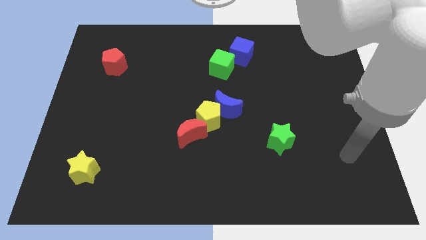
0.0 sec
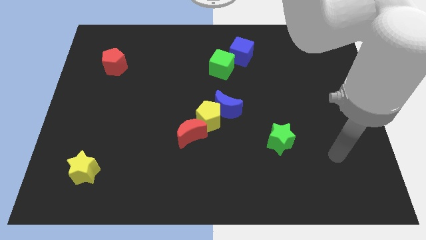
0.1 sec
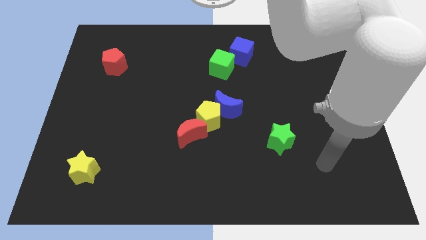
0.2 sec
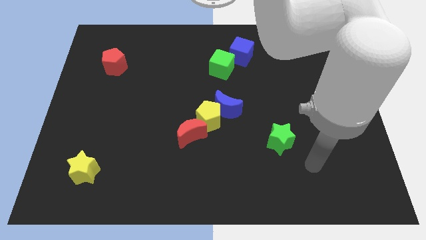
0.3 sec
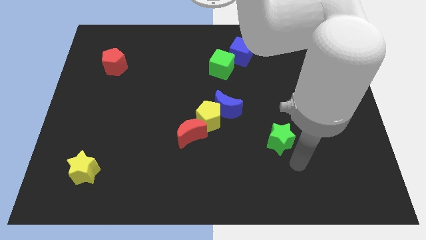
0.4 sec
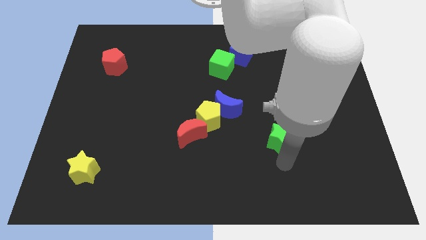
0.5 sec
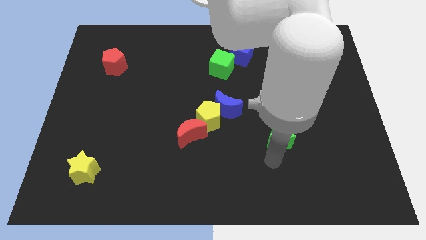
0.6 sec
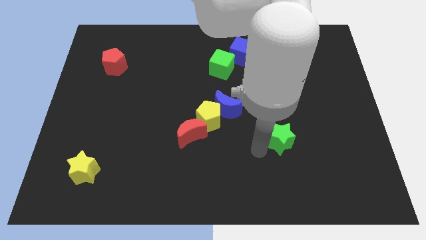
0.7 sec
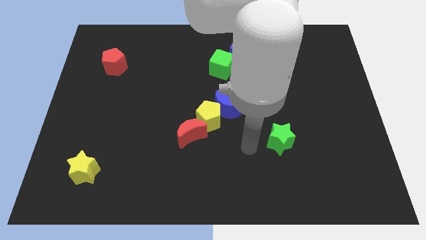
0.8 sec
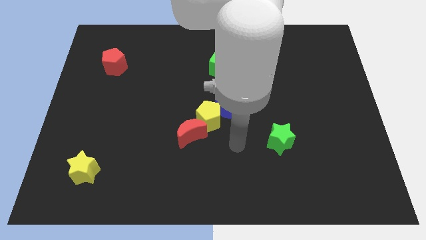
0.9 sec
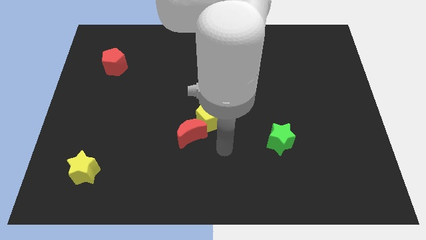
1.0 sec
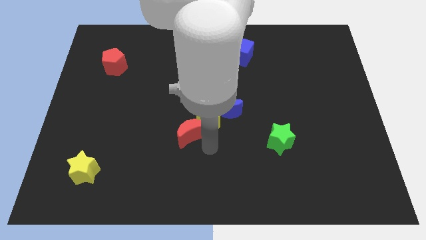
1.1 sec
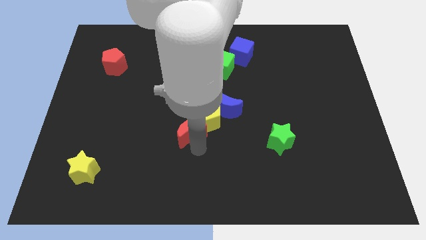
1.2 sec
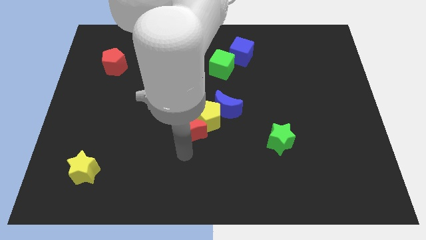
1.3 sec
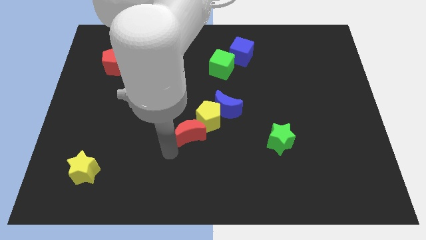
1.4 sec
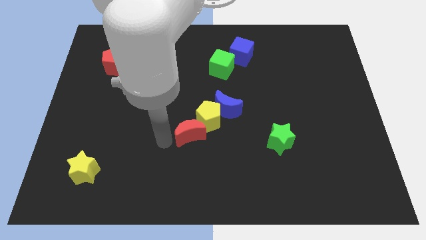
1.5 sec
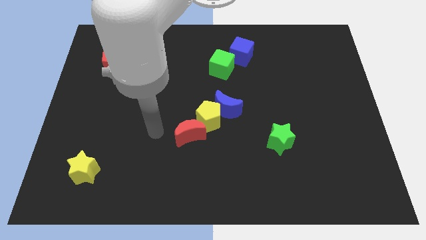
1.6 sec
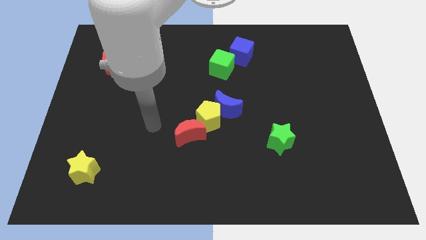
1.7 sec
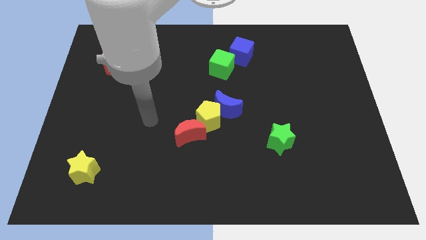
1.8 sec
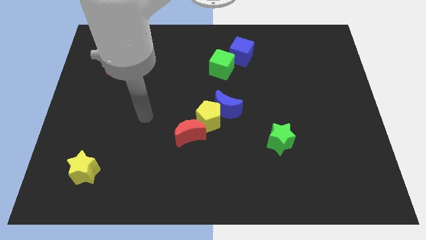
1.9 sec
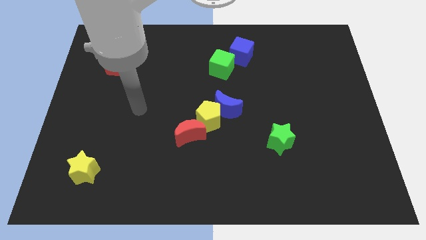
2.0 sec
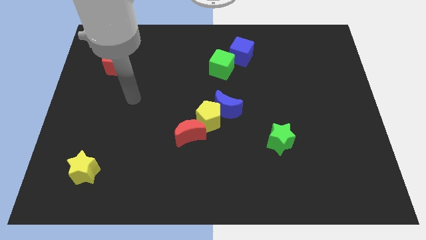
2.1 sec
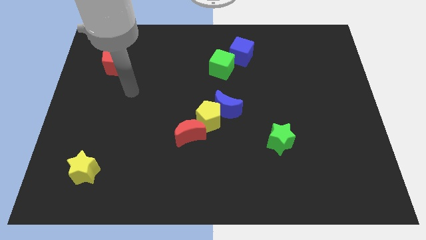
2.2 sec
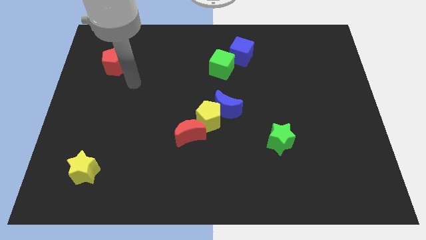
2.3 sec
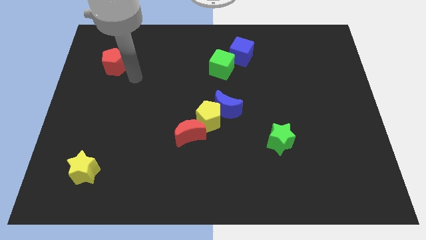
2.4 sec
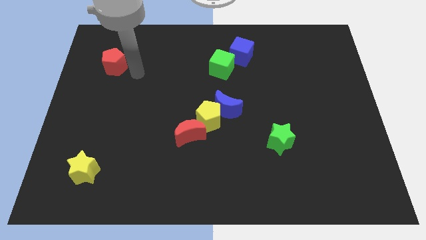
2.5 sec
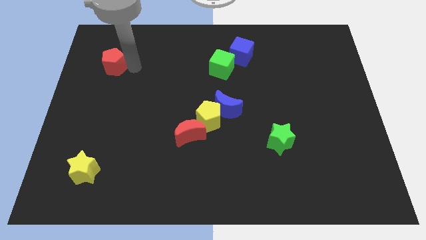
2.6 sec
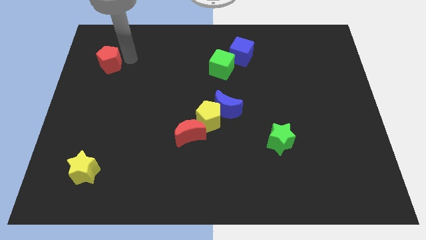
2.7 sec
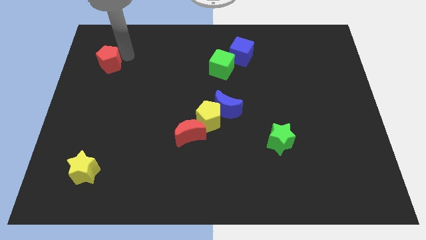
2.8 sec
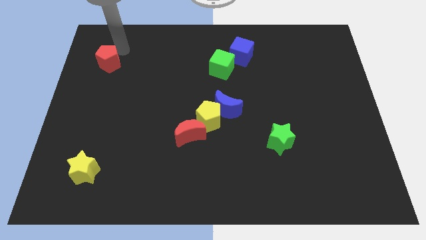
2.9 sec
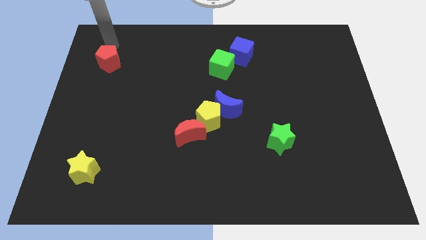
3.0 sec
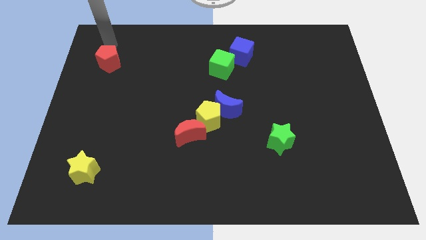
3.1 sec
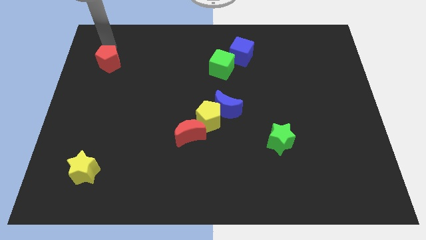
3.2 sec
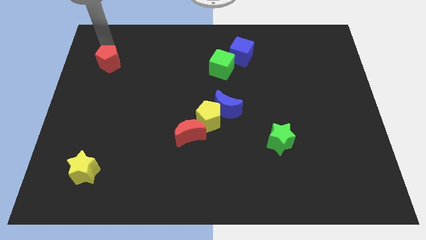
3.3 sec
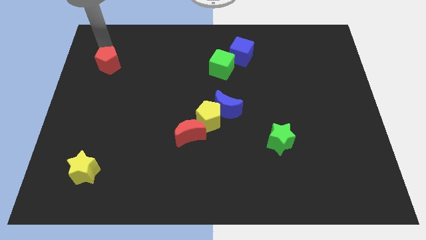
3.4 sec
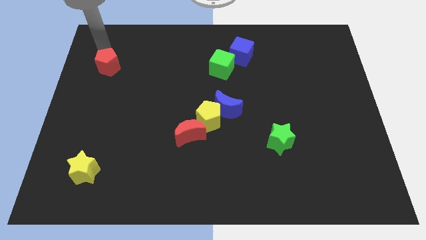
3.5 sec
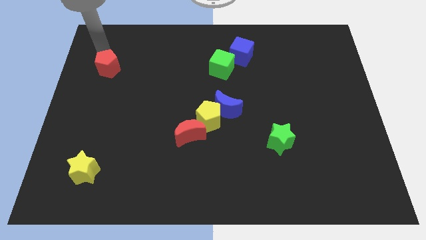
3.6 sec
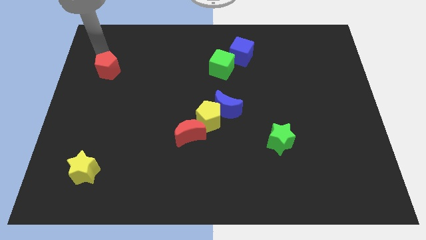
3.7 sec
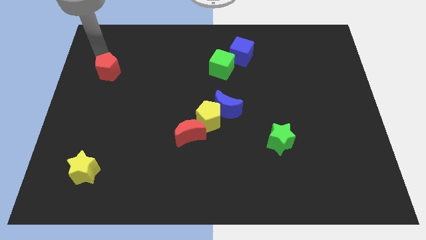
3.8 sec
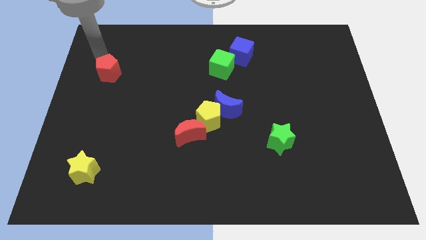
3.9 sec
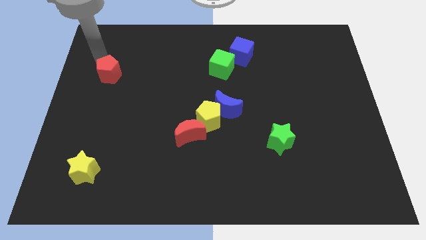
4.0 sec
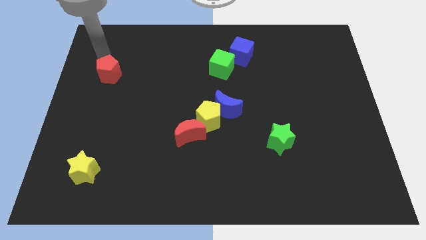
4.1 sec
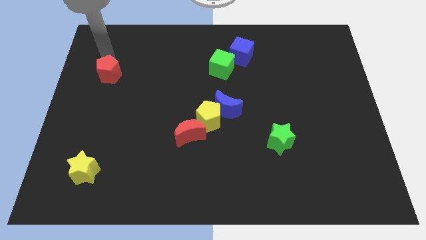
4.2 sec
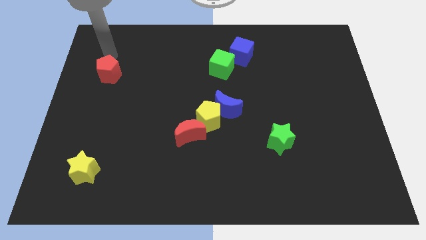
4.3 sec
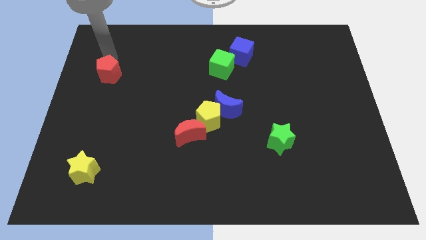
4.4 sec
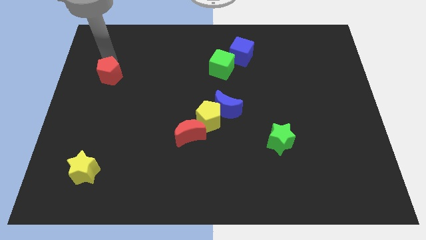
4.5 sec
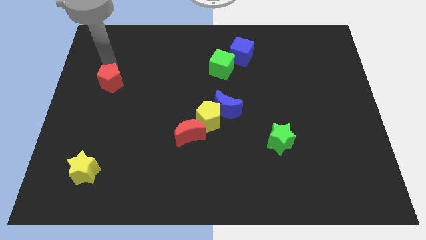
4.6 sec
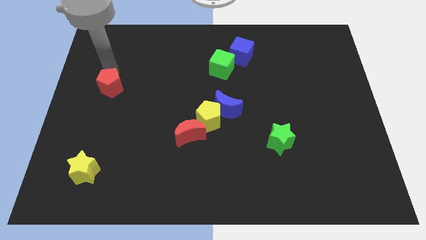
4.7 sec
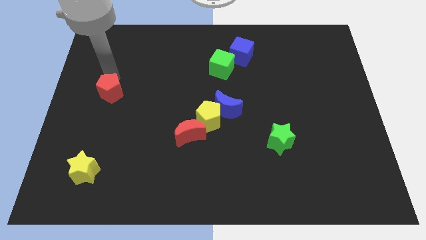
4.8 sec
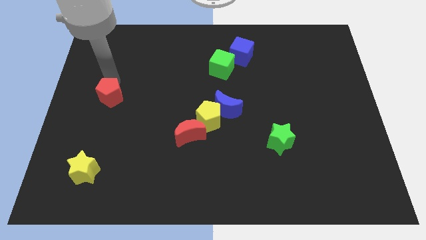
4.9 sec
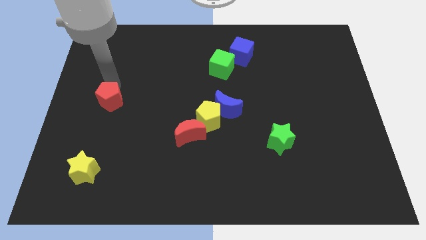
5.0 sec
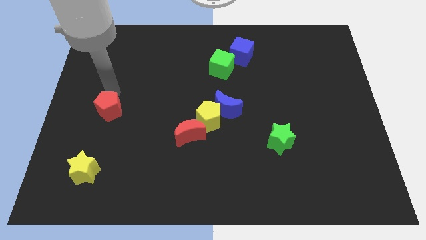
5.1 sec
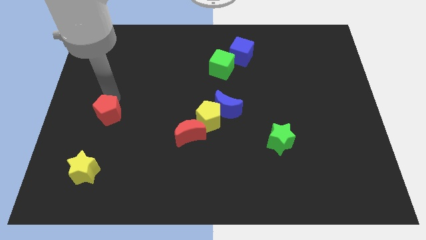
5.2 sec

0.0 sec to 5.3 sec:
put the red pentagon to the top of the yellow star

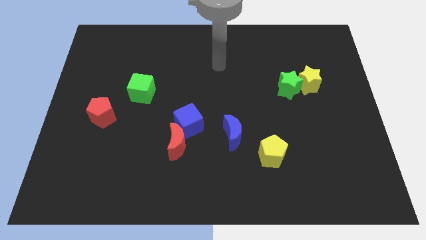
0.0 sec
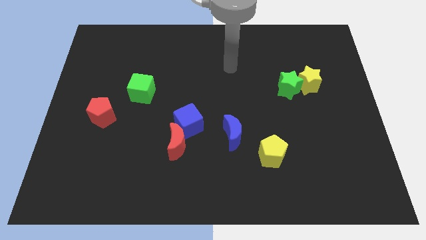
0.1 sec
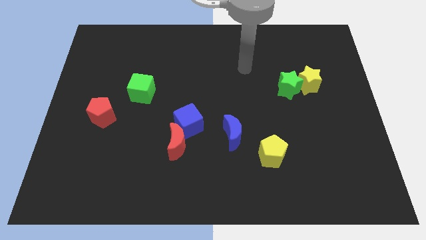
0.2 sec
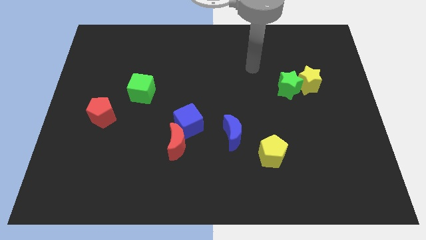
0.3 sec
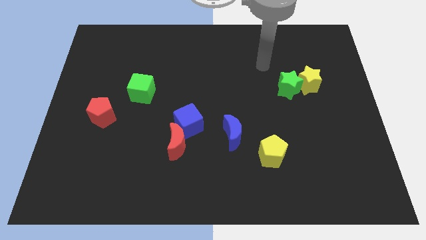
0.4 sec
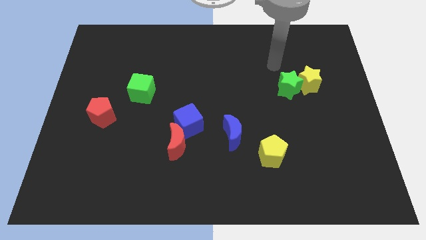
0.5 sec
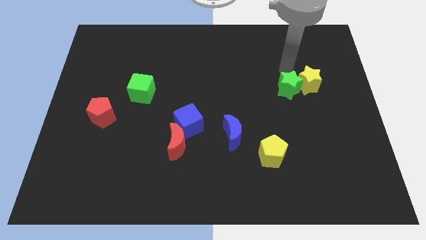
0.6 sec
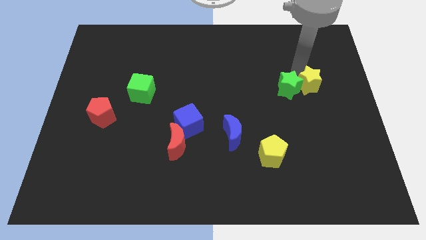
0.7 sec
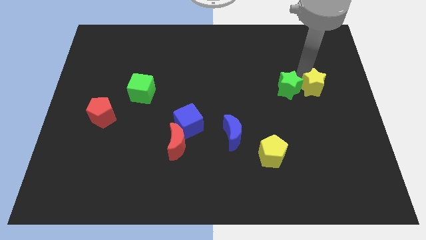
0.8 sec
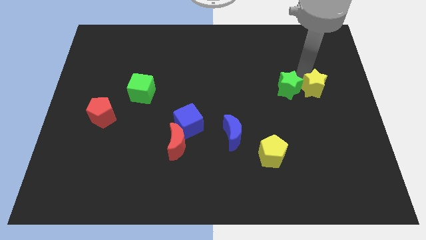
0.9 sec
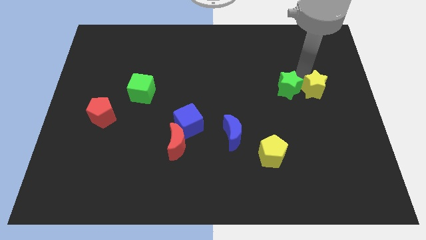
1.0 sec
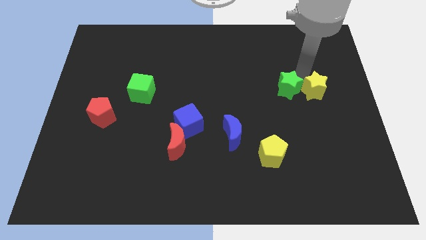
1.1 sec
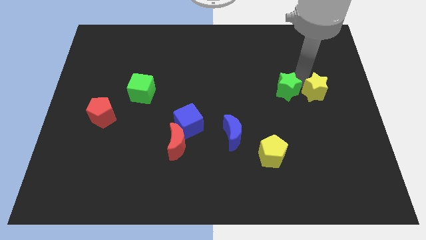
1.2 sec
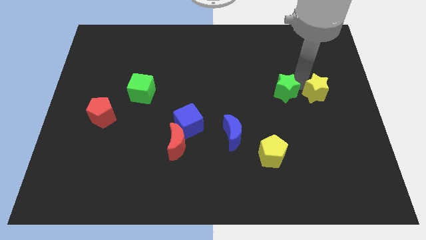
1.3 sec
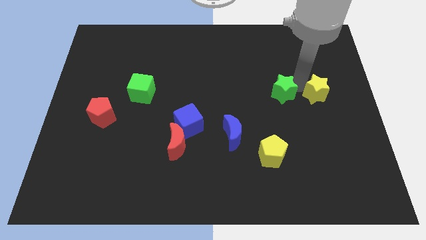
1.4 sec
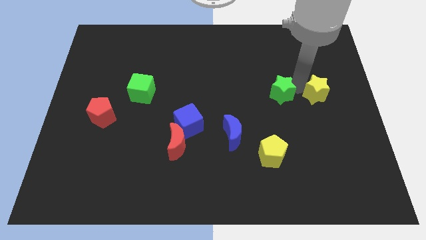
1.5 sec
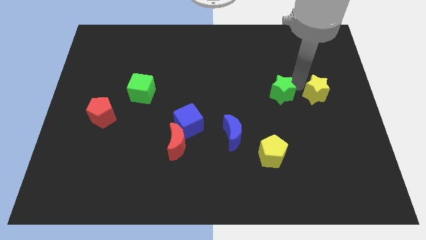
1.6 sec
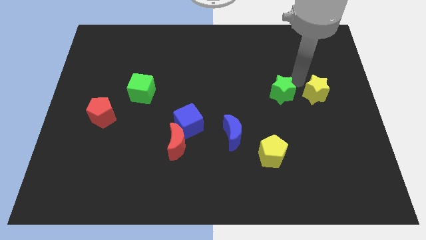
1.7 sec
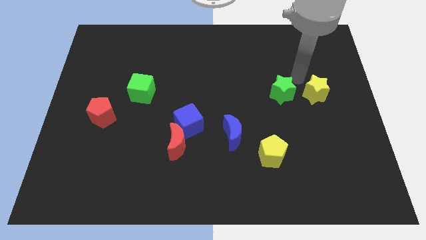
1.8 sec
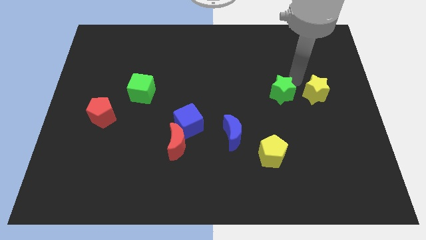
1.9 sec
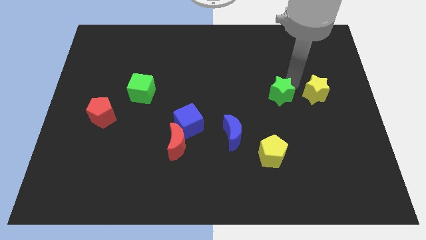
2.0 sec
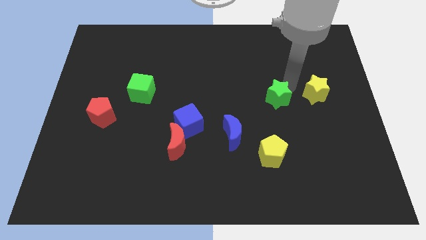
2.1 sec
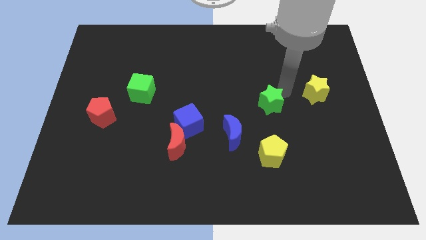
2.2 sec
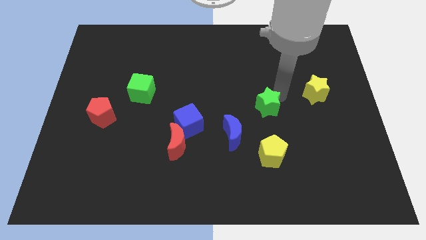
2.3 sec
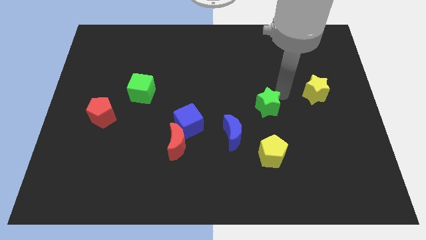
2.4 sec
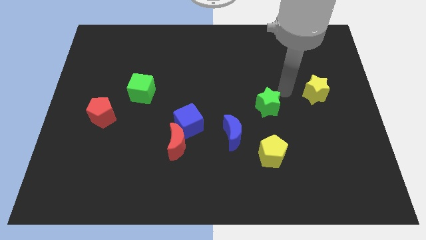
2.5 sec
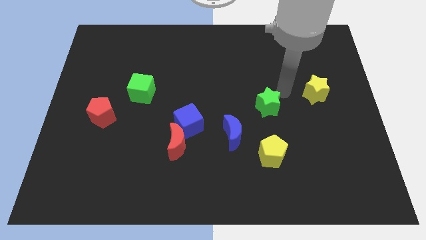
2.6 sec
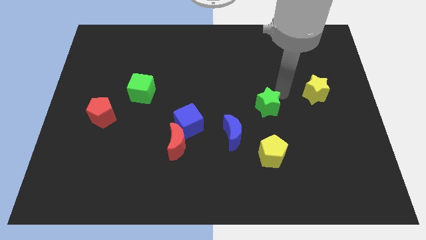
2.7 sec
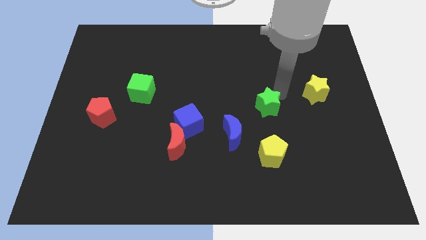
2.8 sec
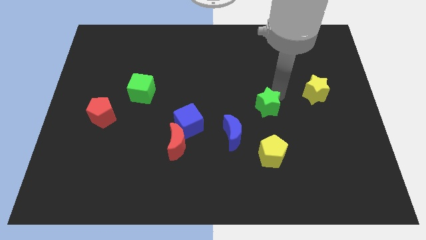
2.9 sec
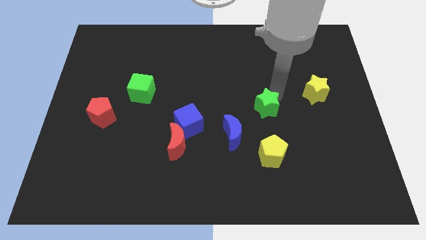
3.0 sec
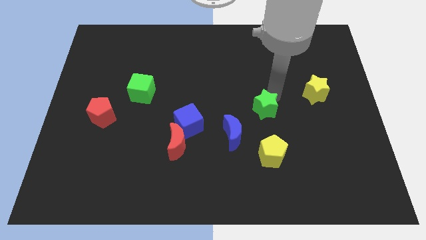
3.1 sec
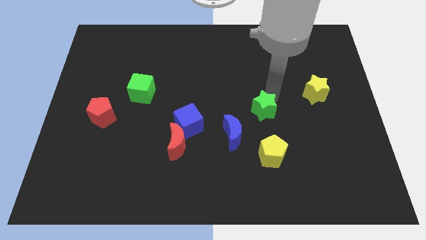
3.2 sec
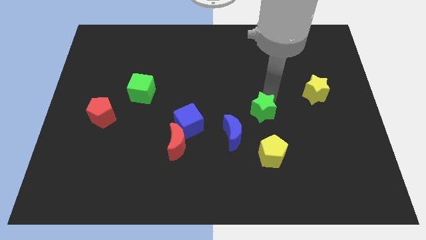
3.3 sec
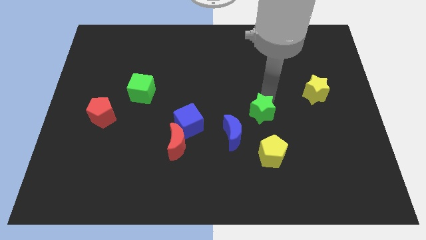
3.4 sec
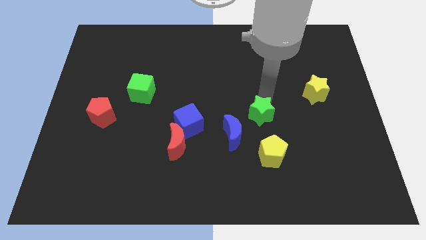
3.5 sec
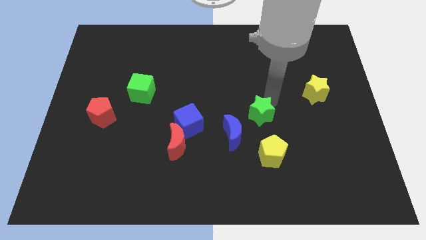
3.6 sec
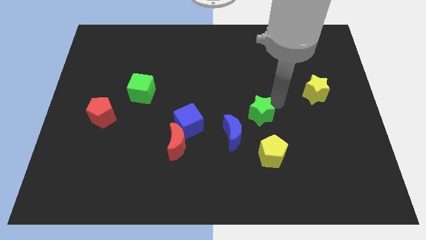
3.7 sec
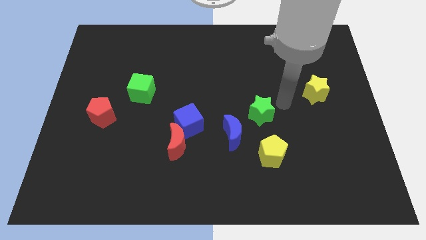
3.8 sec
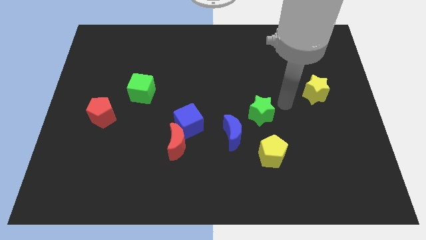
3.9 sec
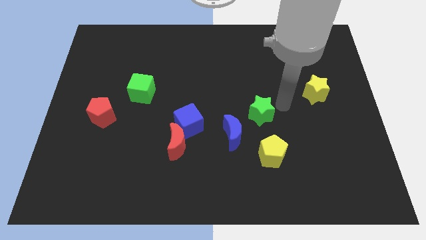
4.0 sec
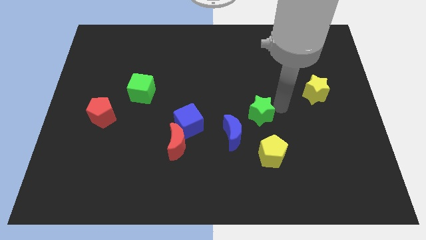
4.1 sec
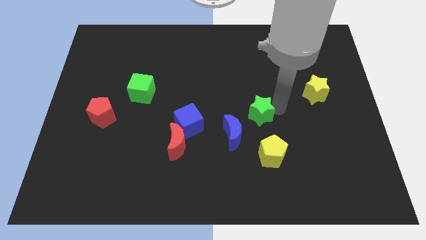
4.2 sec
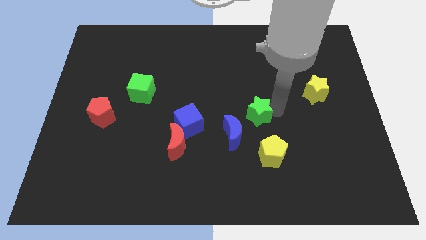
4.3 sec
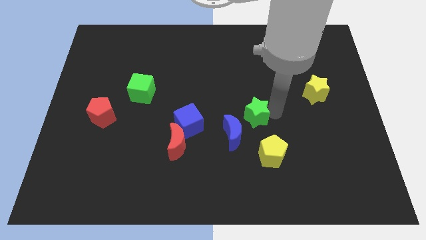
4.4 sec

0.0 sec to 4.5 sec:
slide the green star to the right of the blue cube
